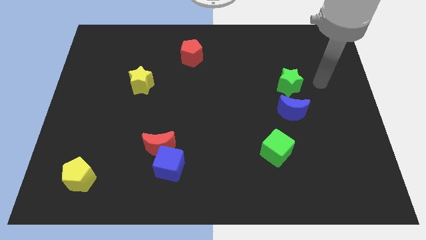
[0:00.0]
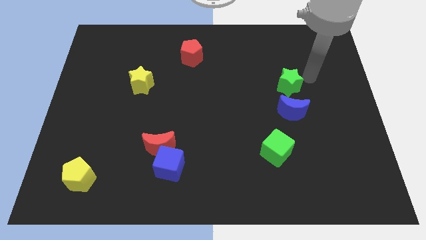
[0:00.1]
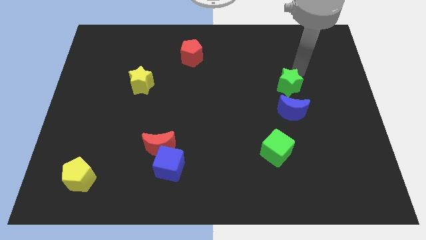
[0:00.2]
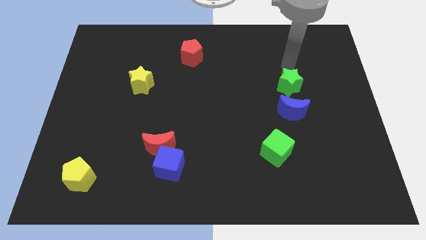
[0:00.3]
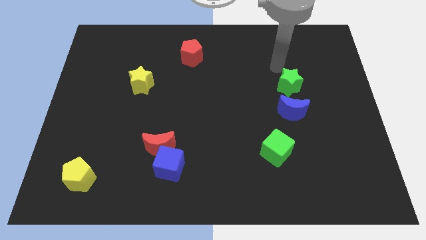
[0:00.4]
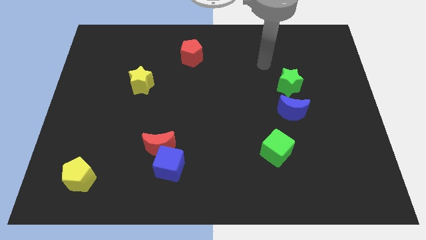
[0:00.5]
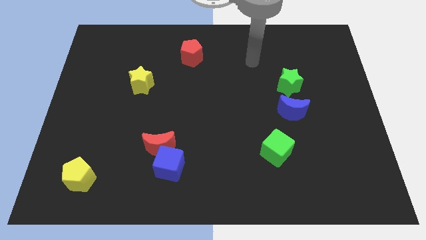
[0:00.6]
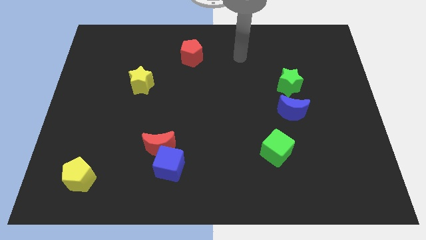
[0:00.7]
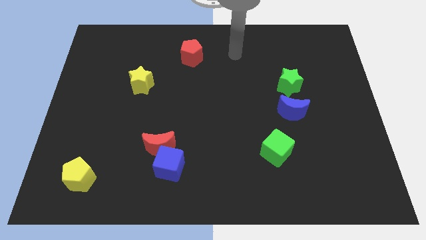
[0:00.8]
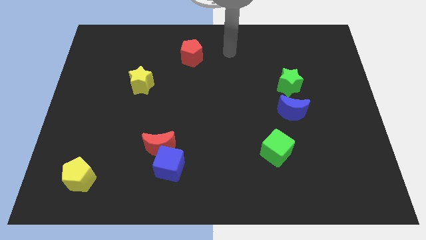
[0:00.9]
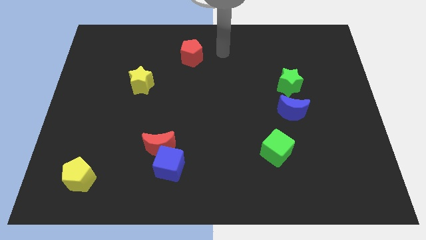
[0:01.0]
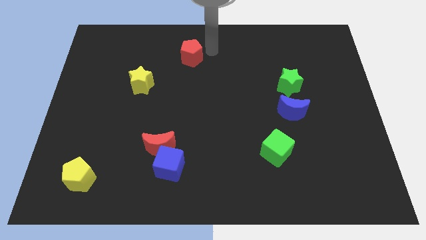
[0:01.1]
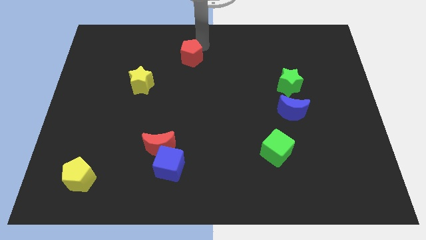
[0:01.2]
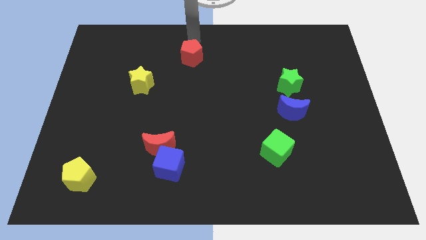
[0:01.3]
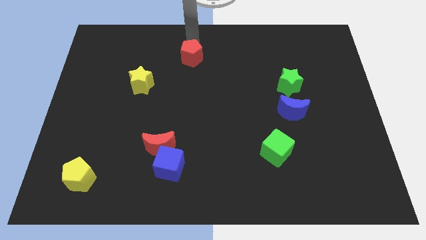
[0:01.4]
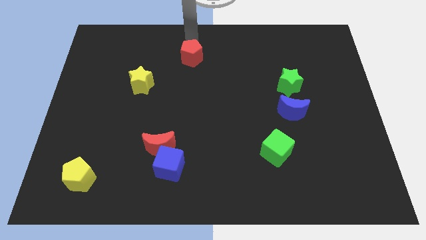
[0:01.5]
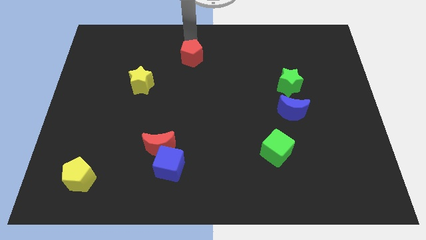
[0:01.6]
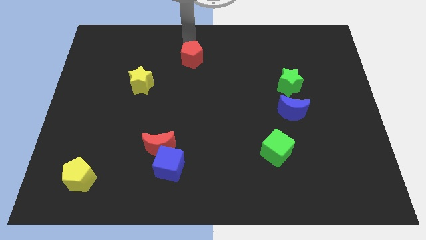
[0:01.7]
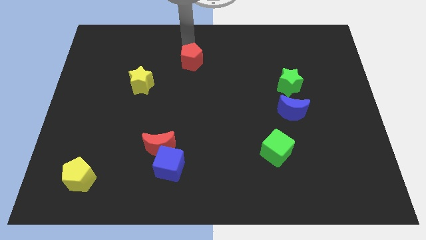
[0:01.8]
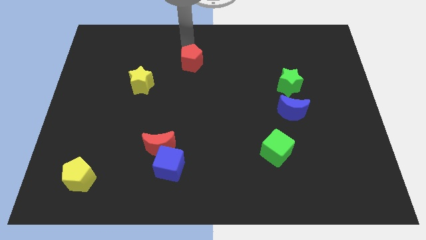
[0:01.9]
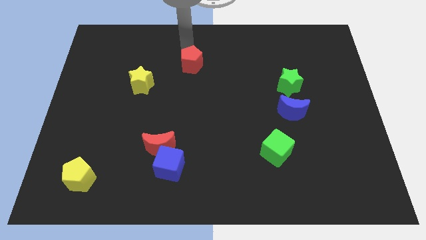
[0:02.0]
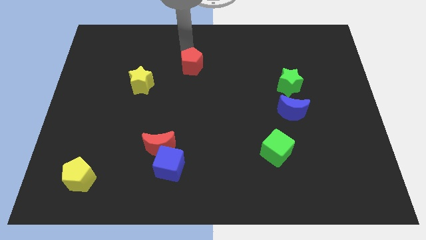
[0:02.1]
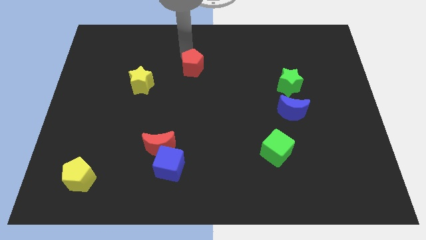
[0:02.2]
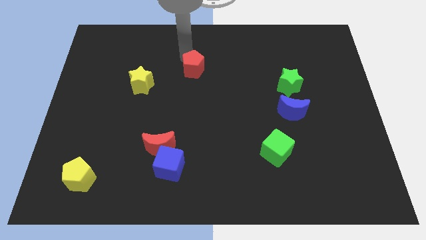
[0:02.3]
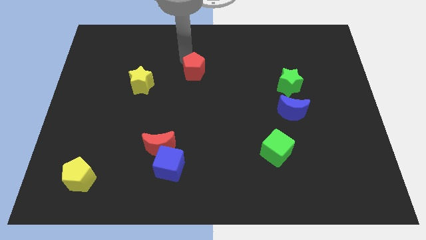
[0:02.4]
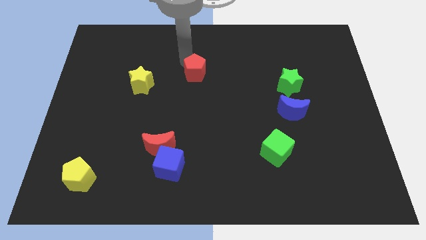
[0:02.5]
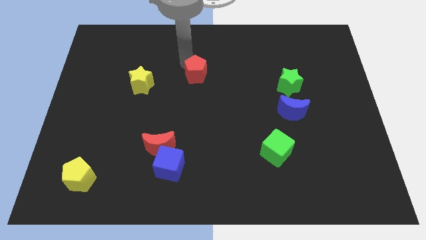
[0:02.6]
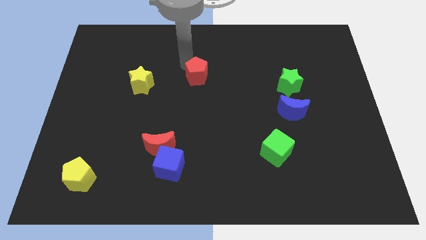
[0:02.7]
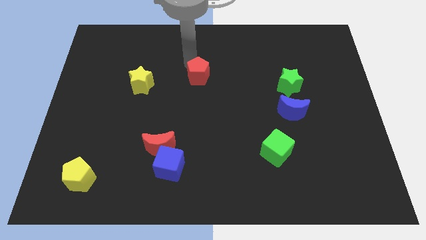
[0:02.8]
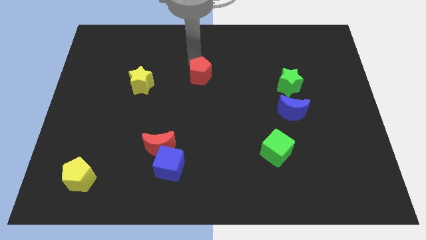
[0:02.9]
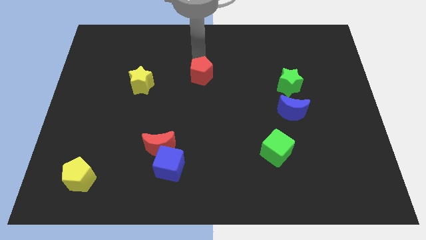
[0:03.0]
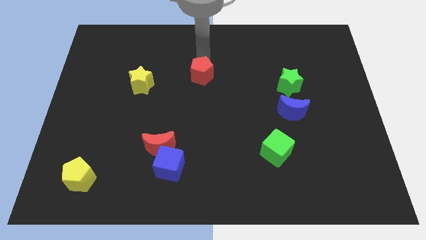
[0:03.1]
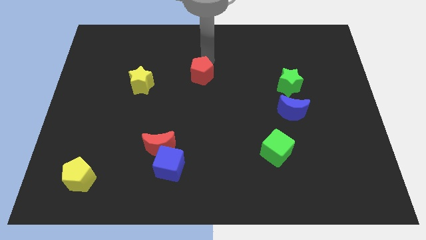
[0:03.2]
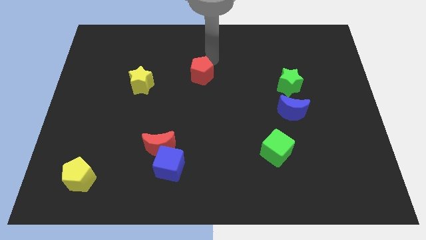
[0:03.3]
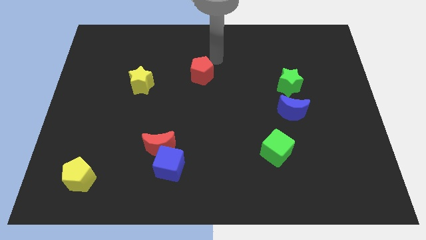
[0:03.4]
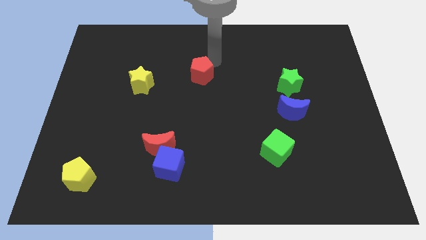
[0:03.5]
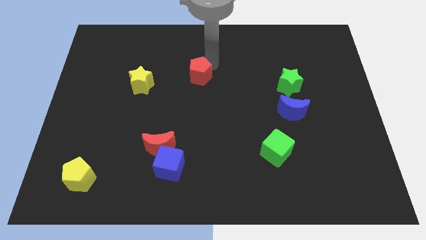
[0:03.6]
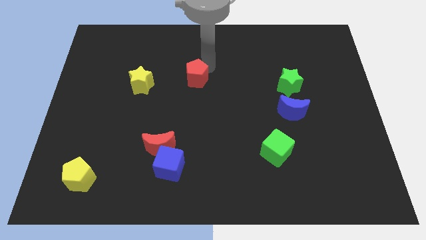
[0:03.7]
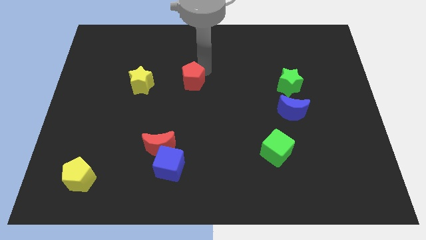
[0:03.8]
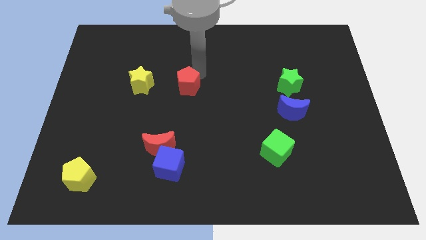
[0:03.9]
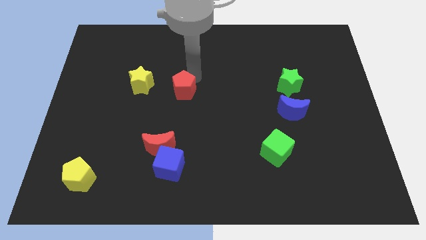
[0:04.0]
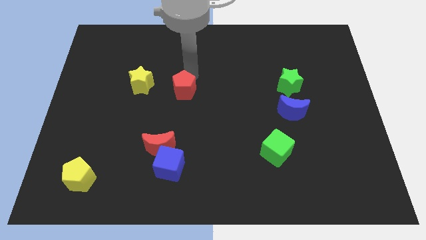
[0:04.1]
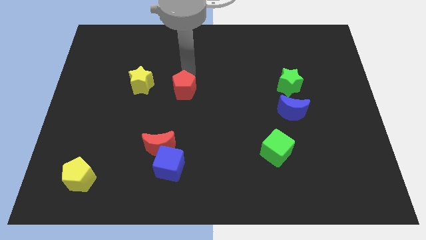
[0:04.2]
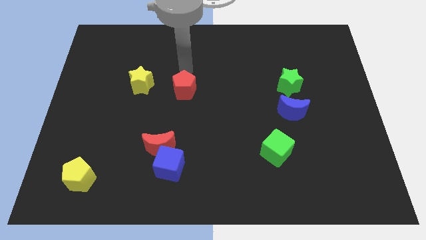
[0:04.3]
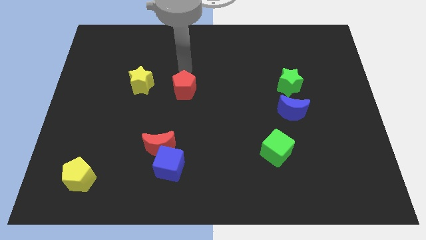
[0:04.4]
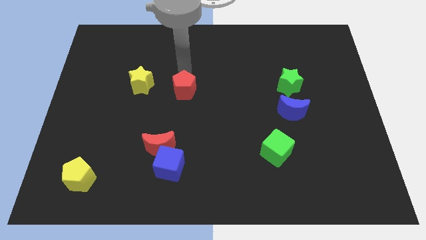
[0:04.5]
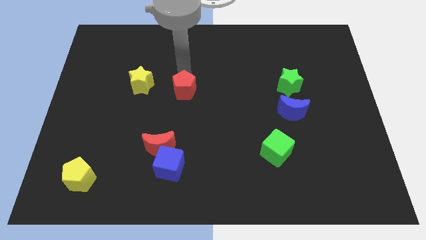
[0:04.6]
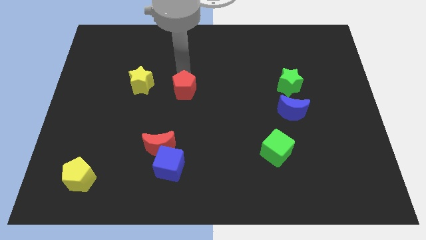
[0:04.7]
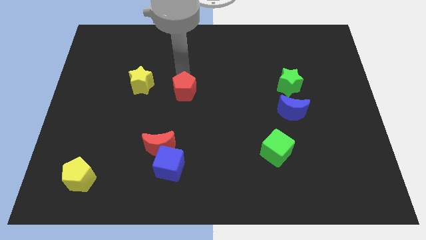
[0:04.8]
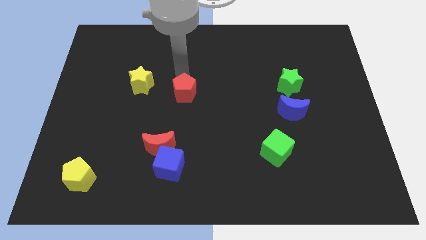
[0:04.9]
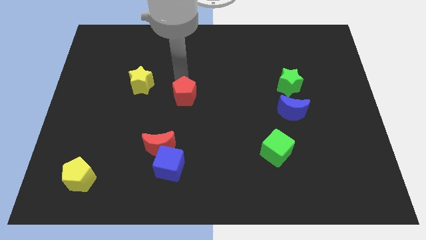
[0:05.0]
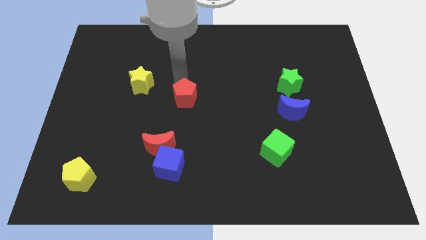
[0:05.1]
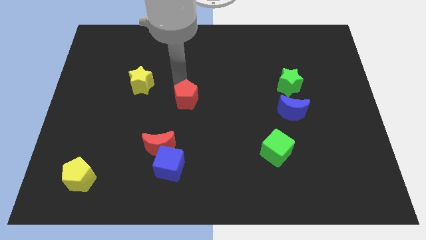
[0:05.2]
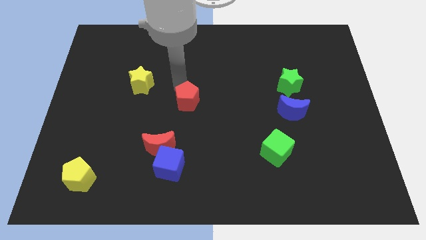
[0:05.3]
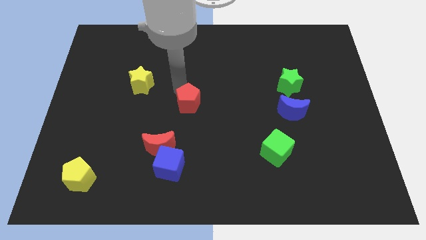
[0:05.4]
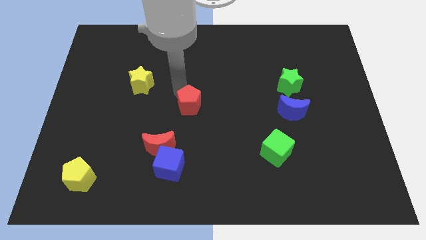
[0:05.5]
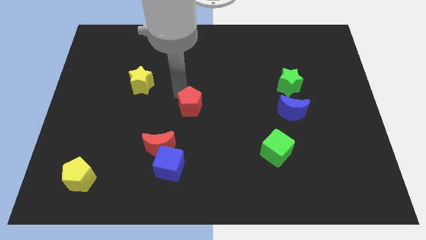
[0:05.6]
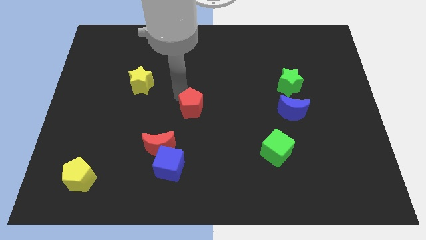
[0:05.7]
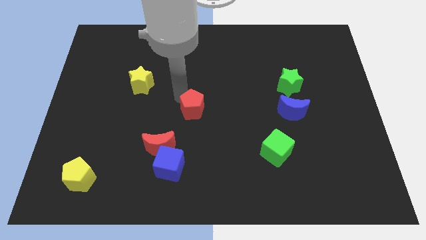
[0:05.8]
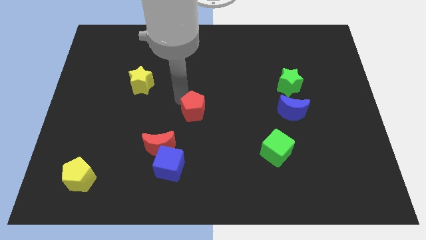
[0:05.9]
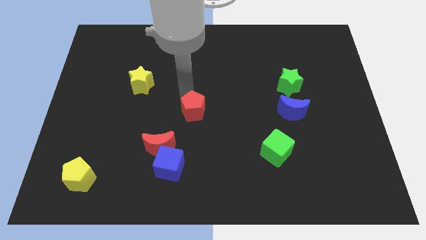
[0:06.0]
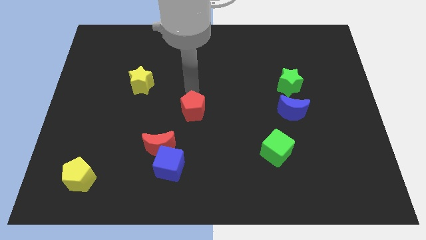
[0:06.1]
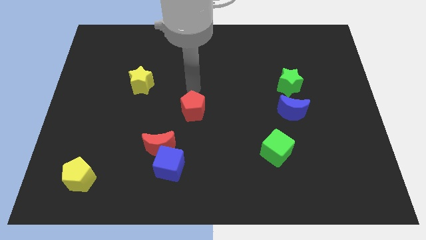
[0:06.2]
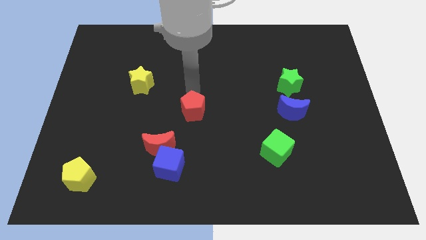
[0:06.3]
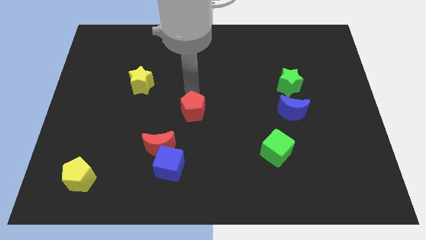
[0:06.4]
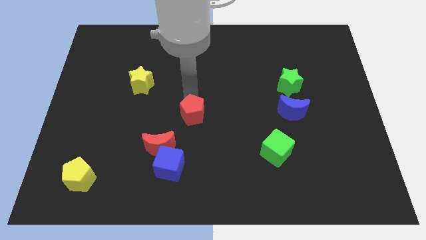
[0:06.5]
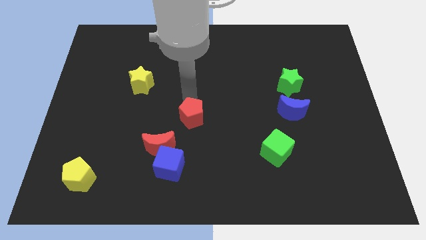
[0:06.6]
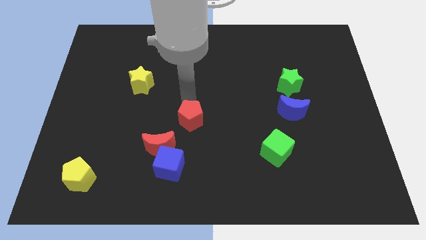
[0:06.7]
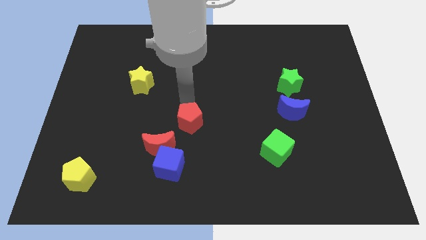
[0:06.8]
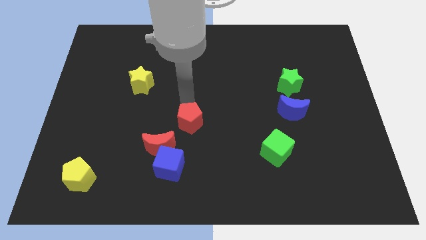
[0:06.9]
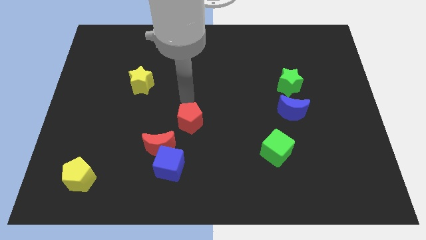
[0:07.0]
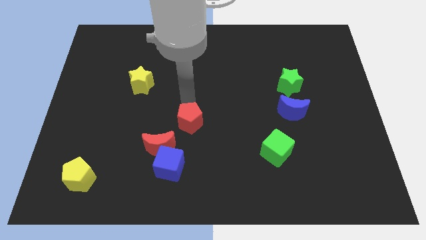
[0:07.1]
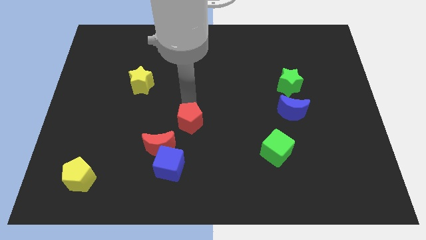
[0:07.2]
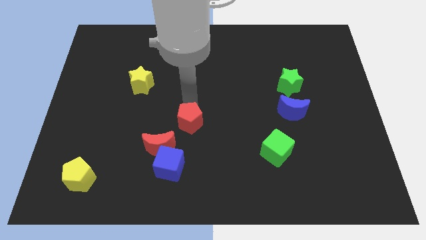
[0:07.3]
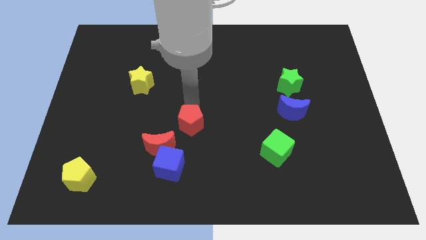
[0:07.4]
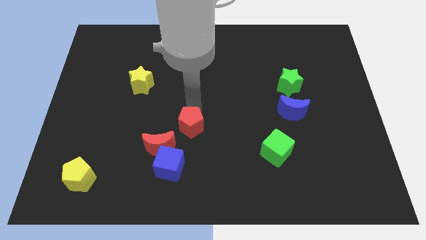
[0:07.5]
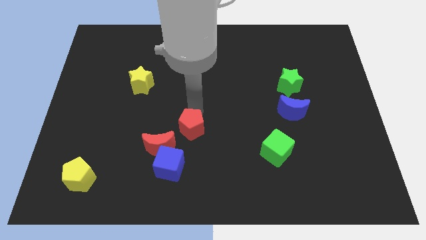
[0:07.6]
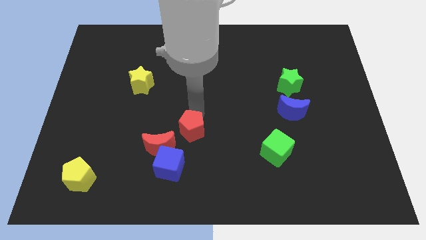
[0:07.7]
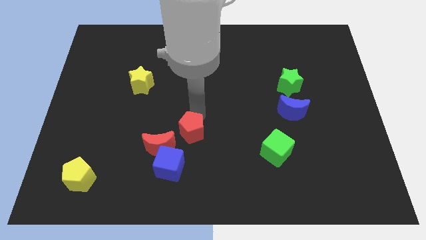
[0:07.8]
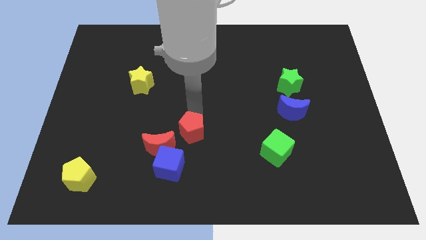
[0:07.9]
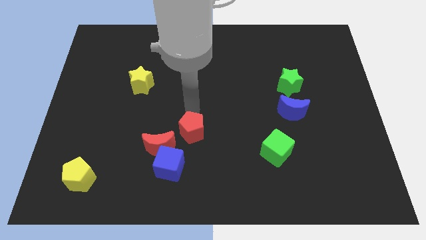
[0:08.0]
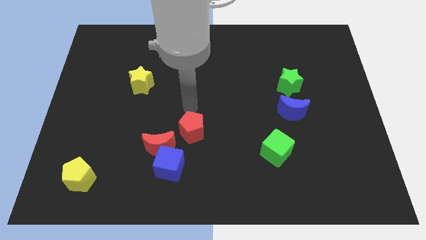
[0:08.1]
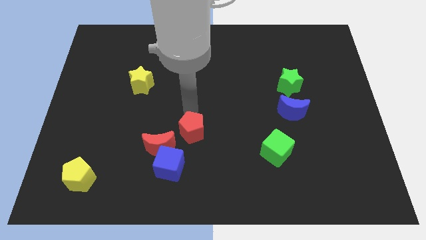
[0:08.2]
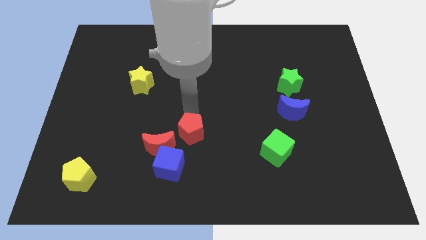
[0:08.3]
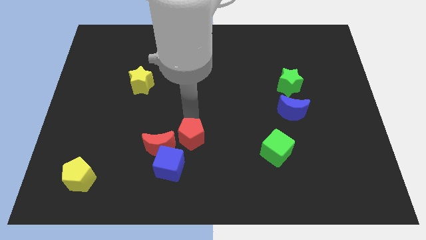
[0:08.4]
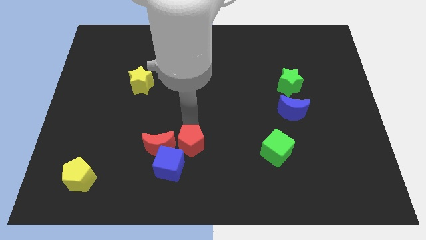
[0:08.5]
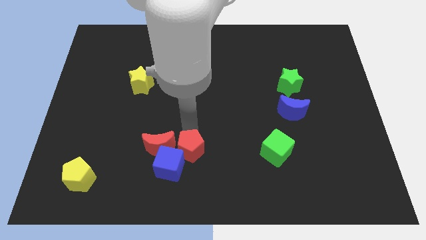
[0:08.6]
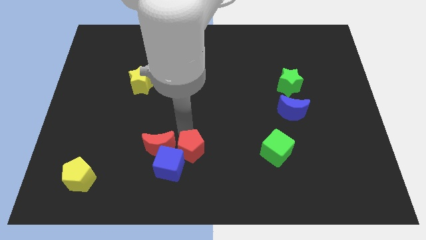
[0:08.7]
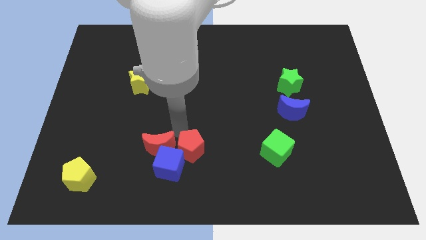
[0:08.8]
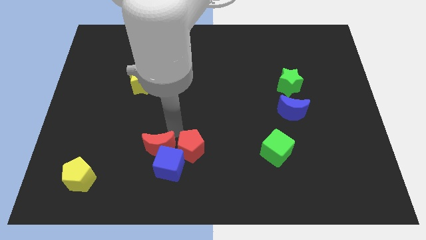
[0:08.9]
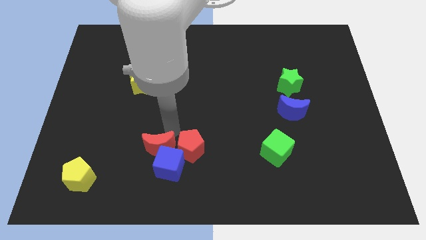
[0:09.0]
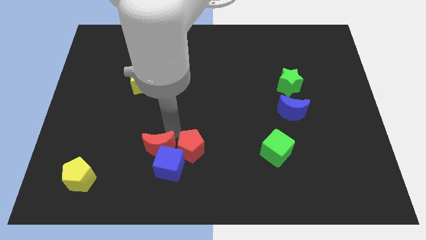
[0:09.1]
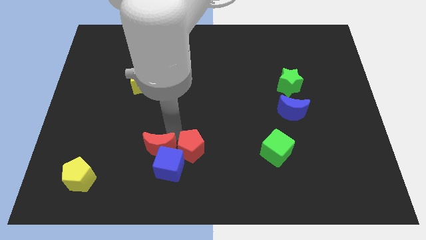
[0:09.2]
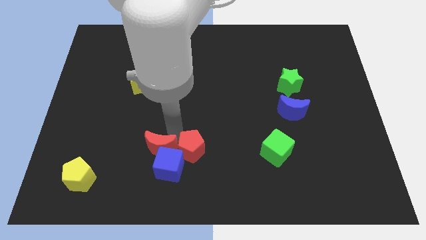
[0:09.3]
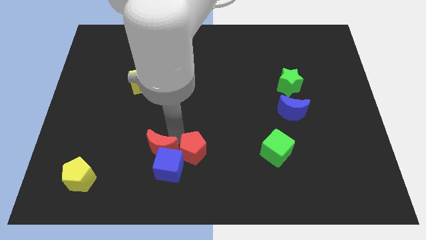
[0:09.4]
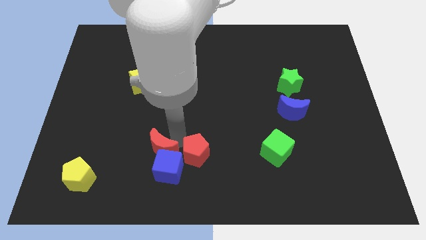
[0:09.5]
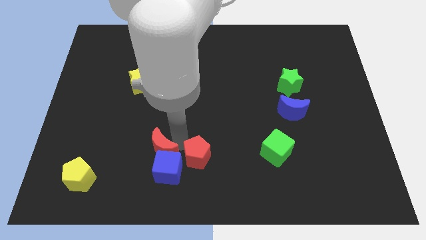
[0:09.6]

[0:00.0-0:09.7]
push the red pentagon to the bottom
